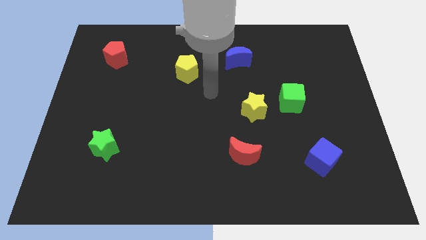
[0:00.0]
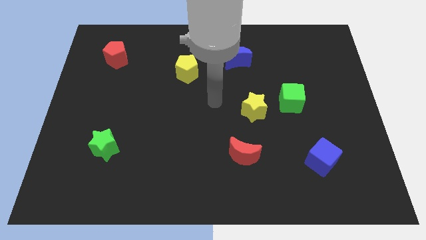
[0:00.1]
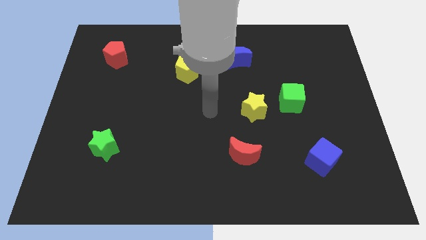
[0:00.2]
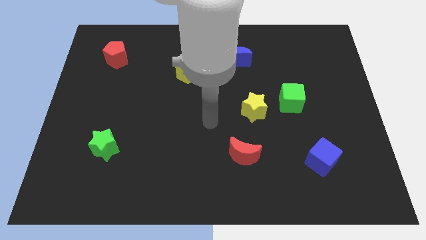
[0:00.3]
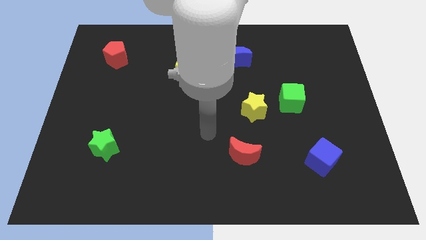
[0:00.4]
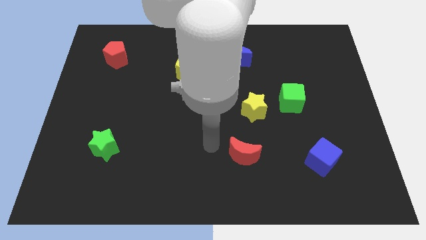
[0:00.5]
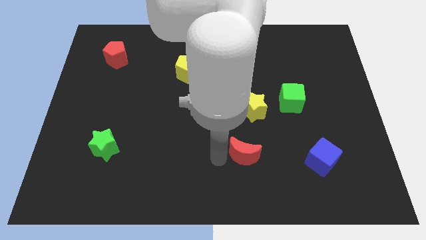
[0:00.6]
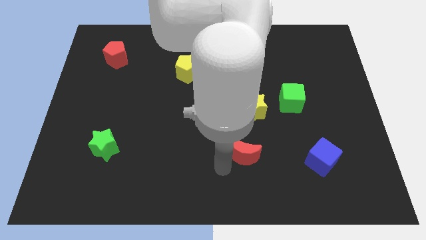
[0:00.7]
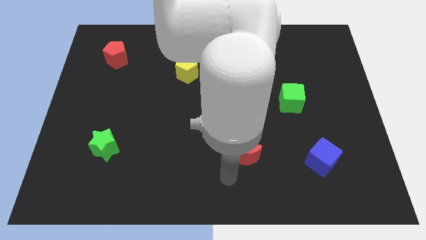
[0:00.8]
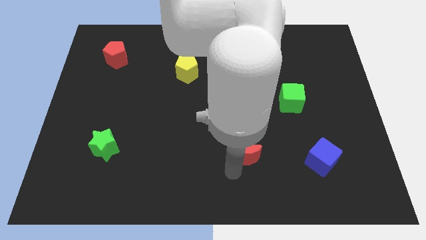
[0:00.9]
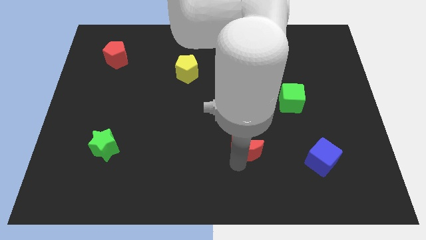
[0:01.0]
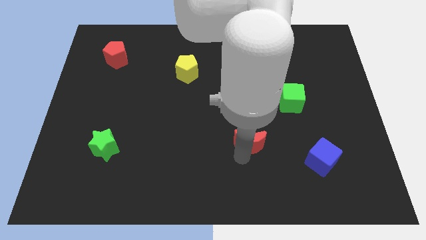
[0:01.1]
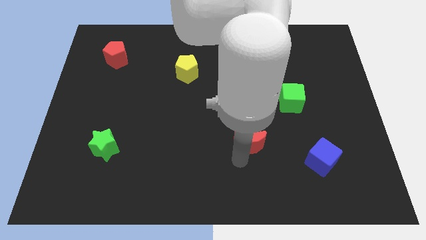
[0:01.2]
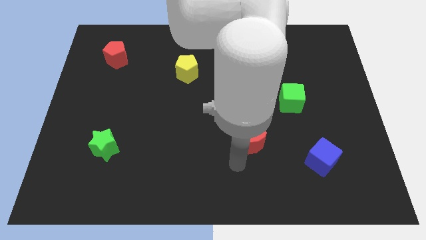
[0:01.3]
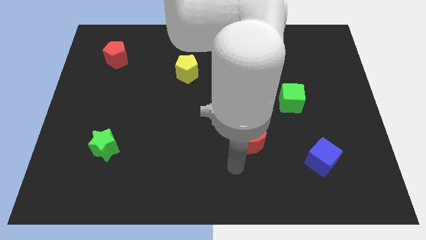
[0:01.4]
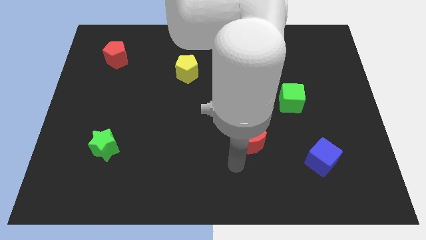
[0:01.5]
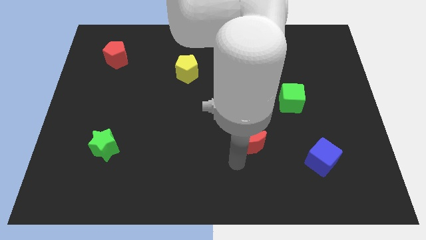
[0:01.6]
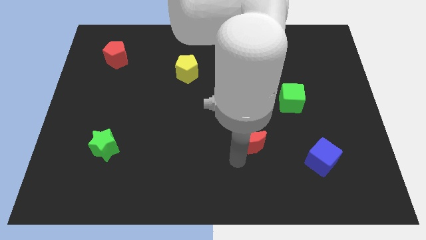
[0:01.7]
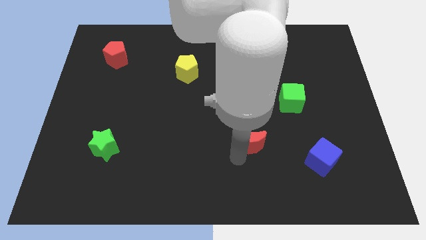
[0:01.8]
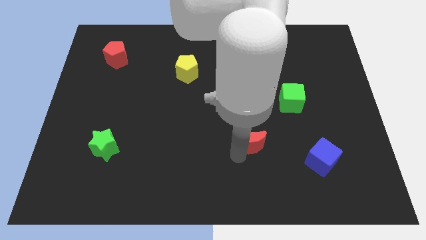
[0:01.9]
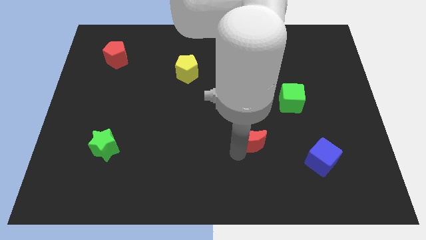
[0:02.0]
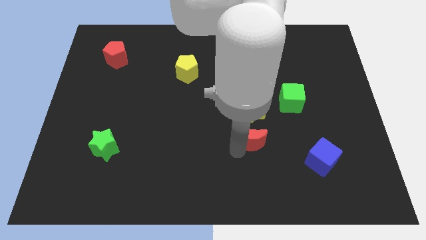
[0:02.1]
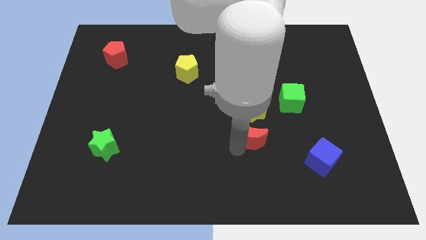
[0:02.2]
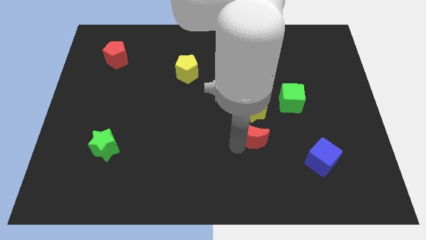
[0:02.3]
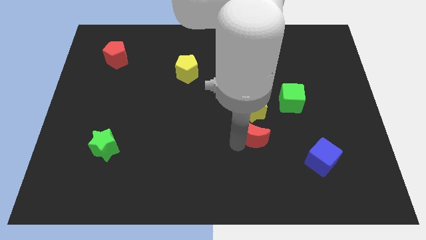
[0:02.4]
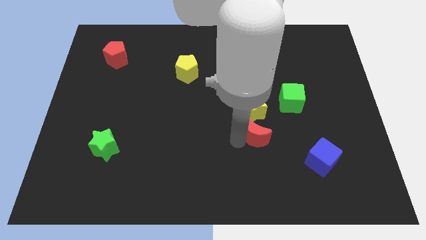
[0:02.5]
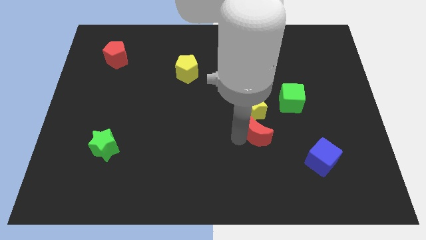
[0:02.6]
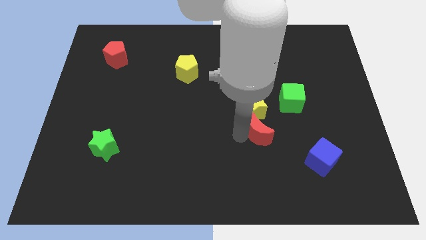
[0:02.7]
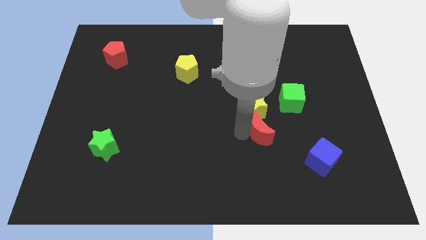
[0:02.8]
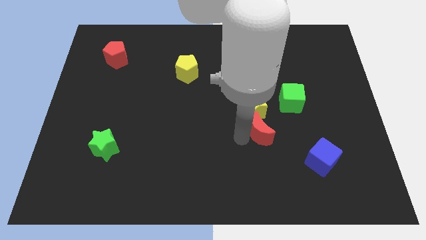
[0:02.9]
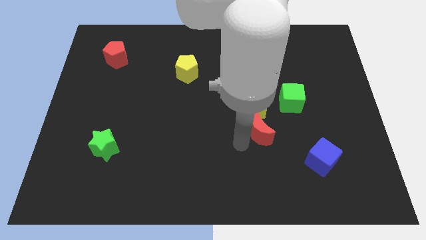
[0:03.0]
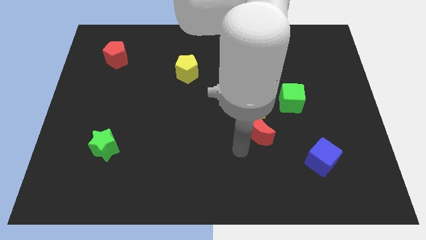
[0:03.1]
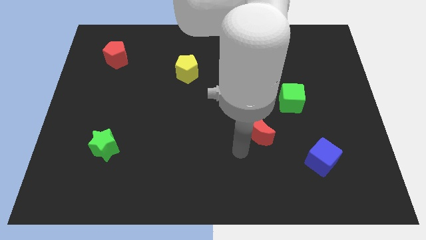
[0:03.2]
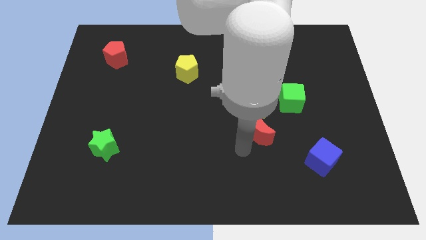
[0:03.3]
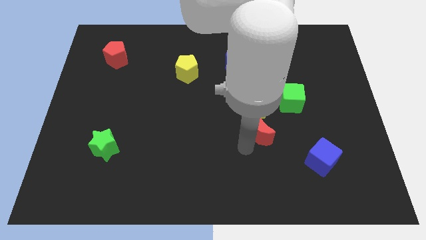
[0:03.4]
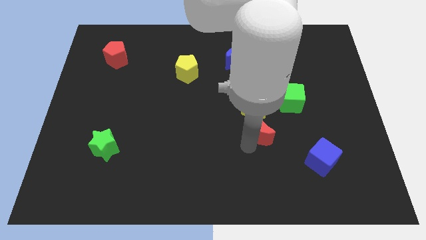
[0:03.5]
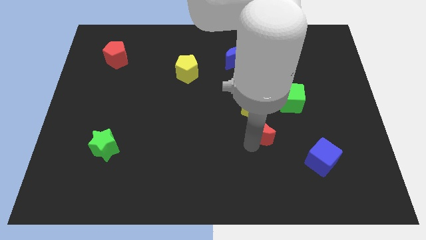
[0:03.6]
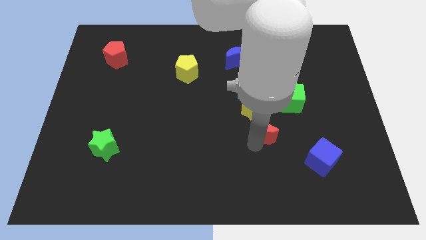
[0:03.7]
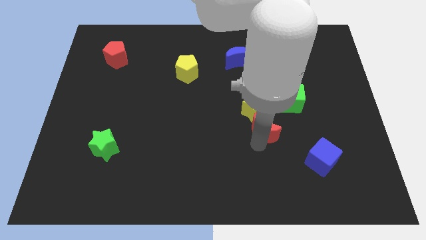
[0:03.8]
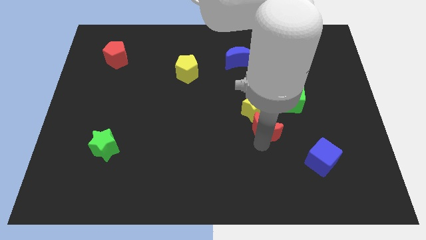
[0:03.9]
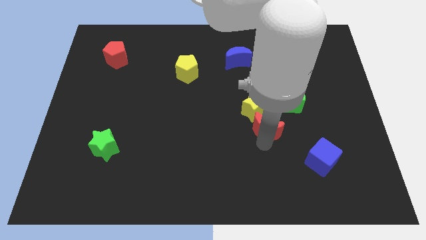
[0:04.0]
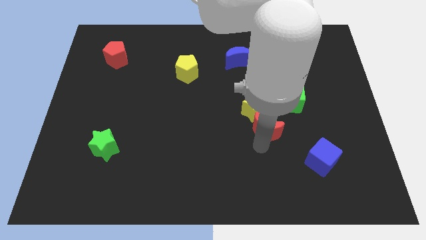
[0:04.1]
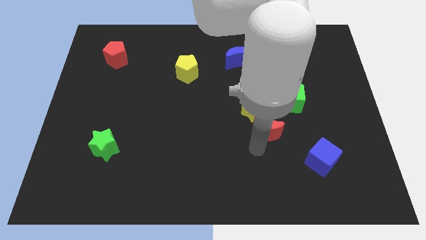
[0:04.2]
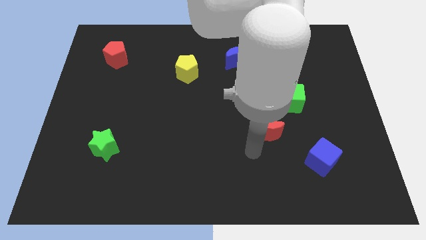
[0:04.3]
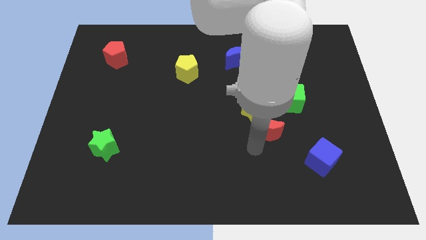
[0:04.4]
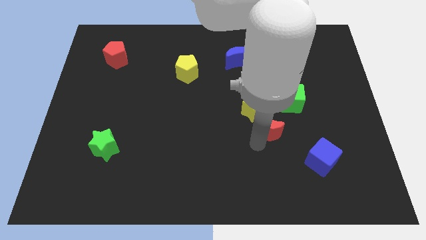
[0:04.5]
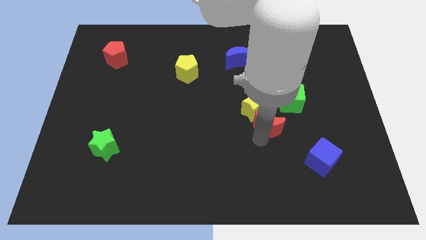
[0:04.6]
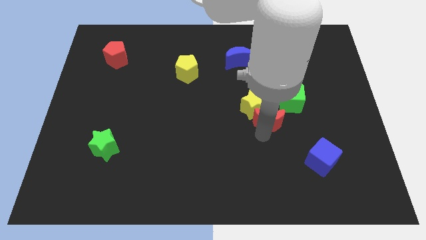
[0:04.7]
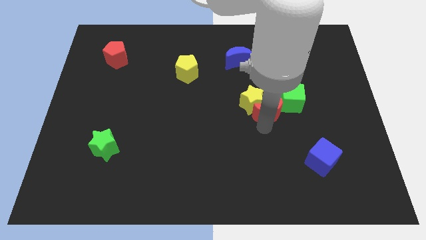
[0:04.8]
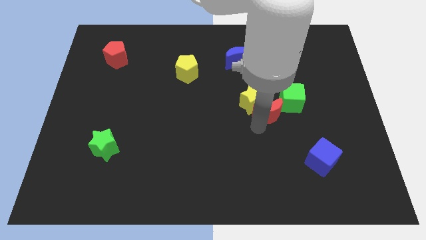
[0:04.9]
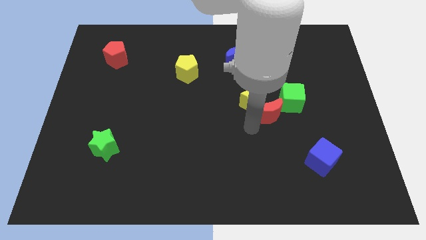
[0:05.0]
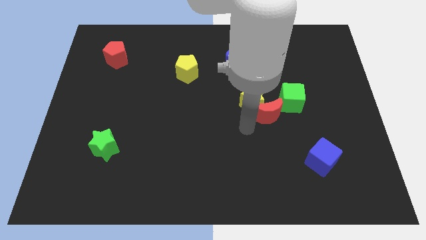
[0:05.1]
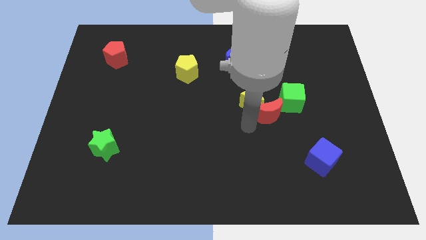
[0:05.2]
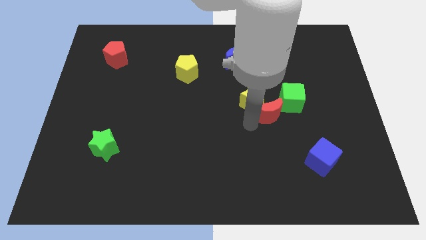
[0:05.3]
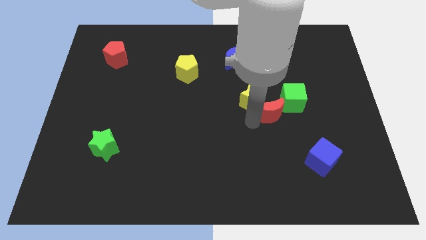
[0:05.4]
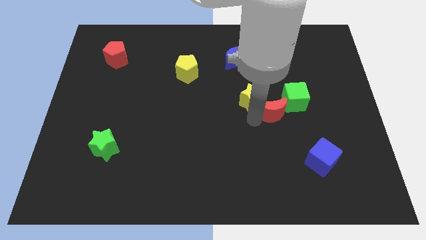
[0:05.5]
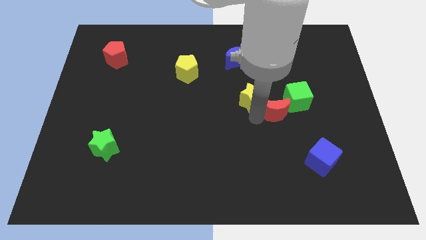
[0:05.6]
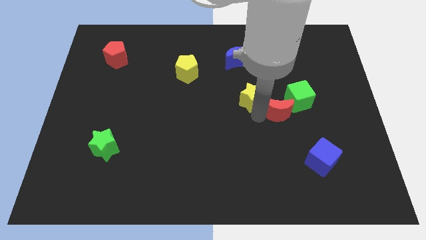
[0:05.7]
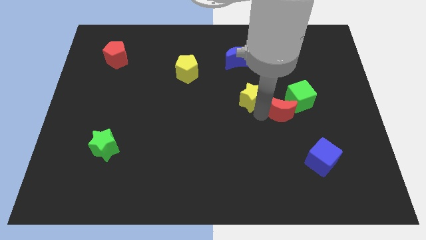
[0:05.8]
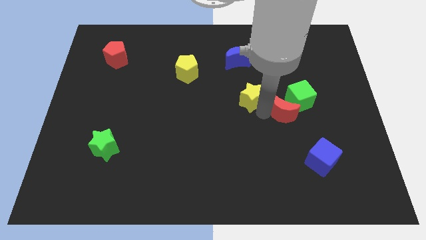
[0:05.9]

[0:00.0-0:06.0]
move the red moon towards the green cube

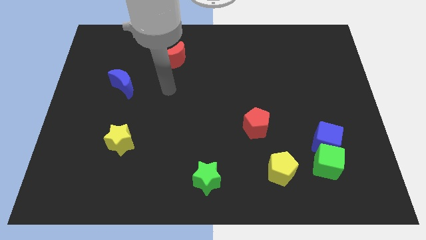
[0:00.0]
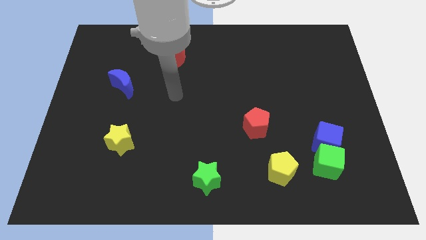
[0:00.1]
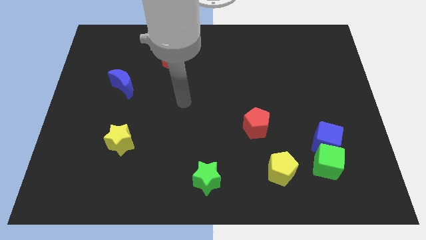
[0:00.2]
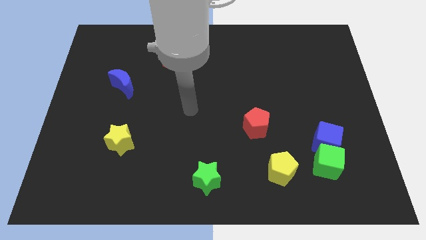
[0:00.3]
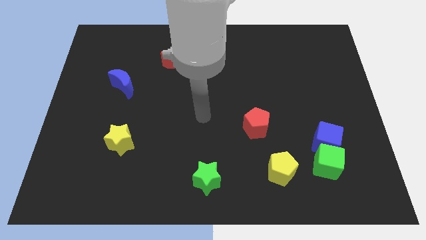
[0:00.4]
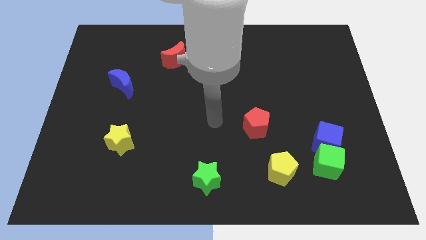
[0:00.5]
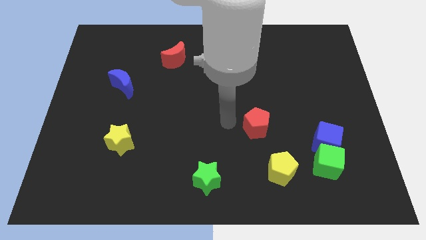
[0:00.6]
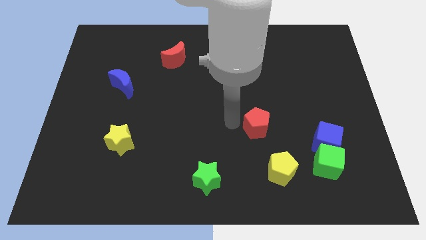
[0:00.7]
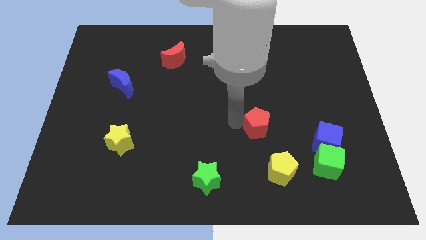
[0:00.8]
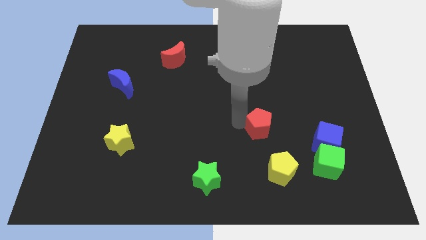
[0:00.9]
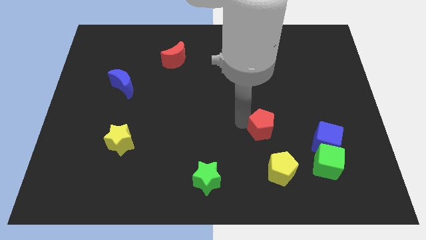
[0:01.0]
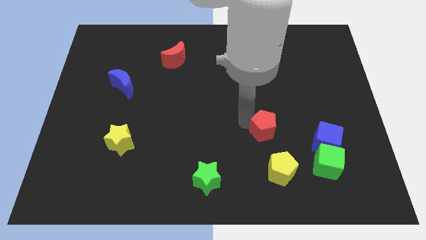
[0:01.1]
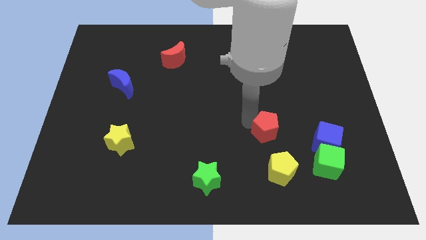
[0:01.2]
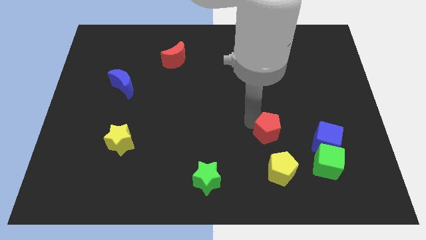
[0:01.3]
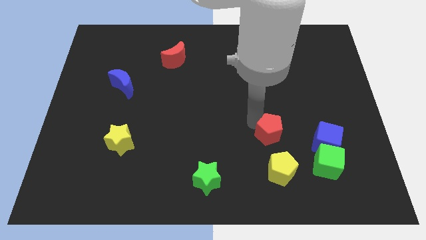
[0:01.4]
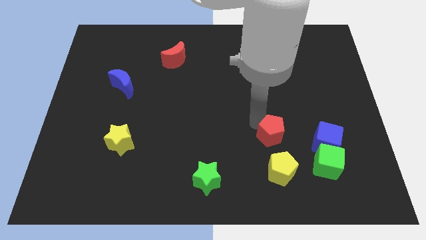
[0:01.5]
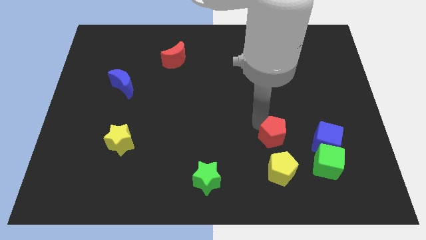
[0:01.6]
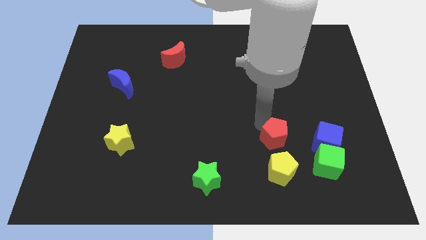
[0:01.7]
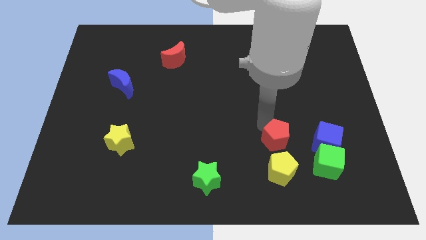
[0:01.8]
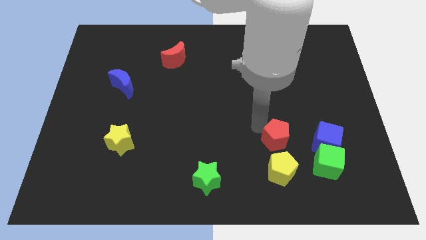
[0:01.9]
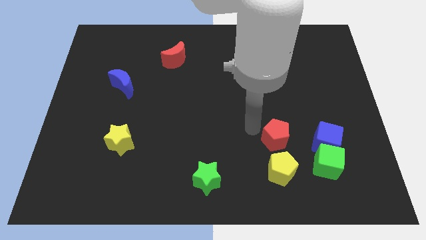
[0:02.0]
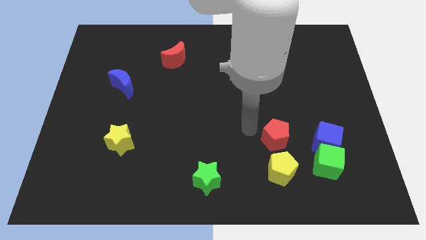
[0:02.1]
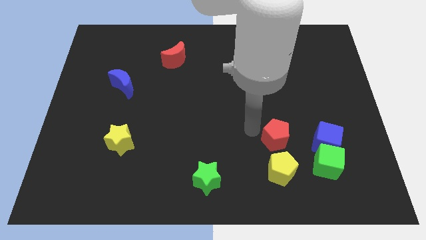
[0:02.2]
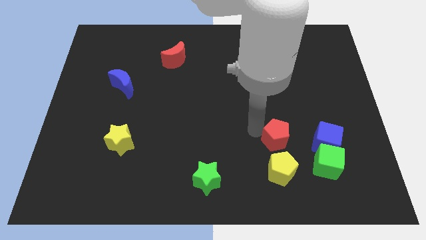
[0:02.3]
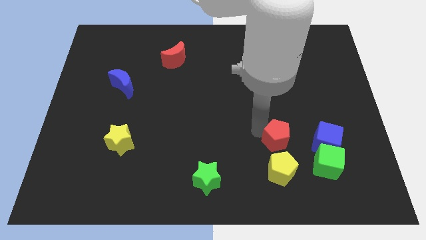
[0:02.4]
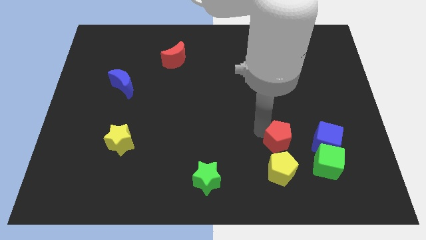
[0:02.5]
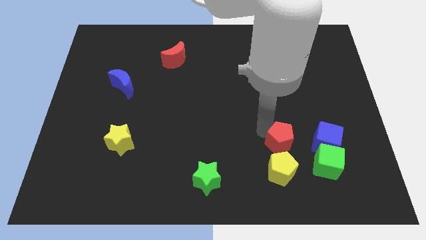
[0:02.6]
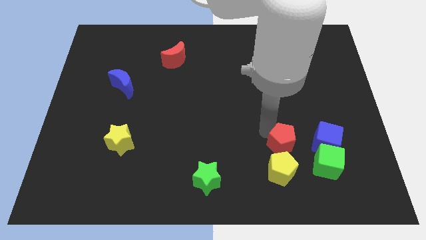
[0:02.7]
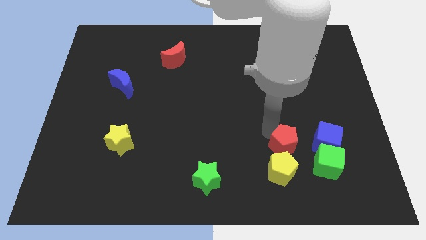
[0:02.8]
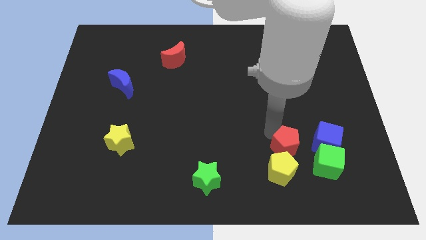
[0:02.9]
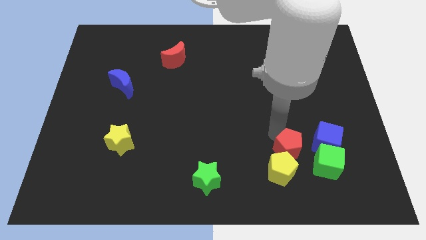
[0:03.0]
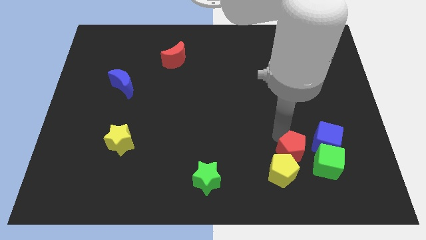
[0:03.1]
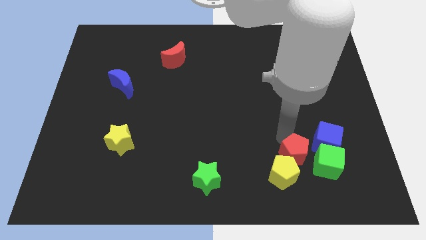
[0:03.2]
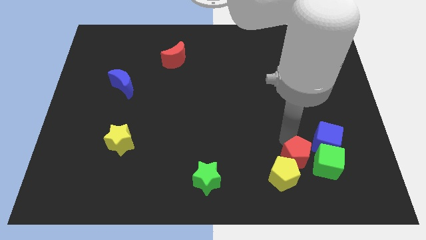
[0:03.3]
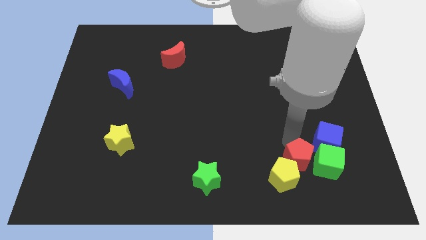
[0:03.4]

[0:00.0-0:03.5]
put the red pentagon next to the green cube
